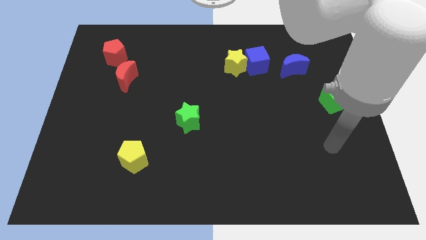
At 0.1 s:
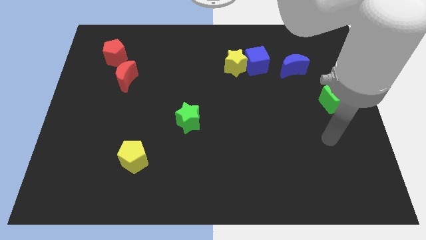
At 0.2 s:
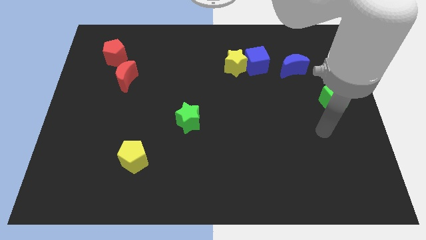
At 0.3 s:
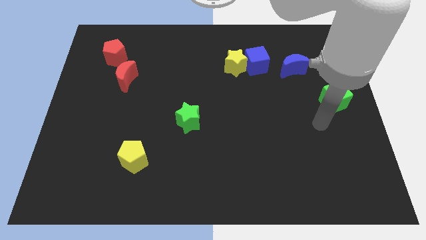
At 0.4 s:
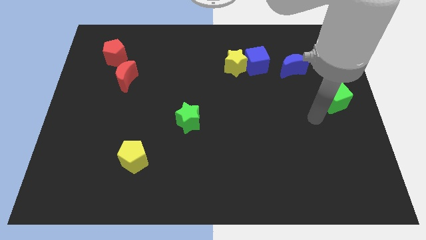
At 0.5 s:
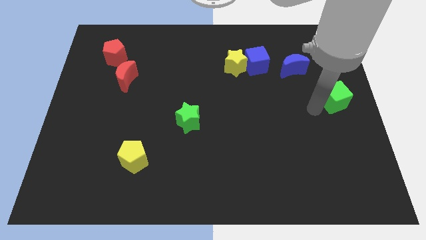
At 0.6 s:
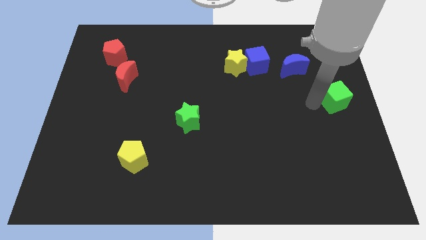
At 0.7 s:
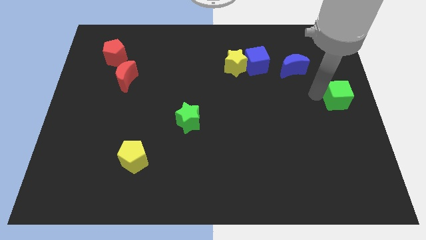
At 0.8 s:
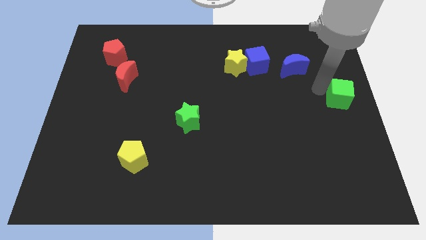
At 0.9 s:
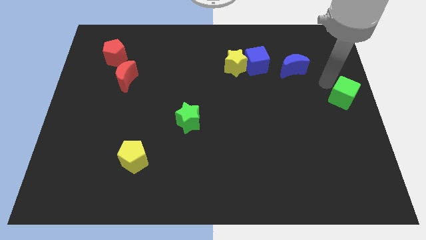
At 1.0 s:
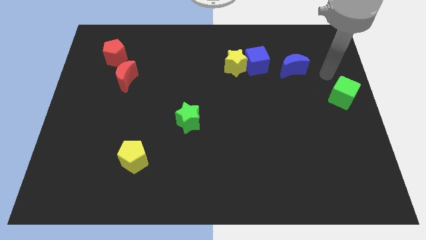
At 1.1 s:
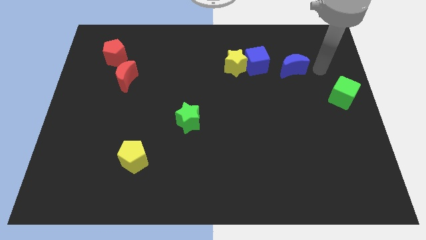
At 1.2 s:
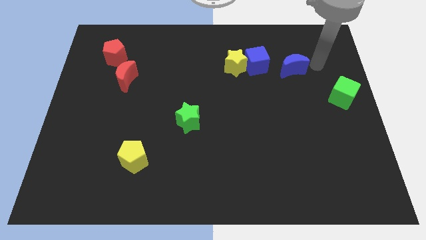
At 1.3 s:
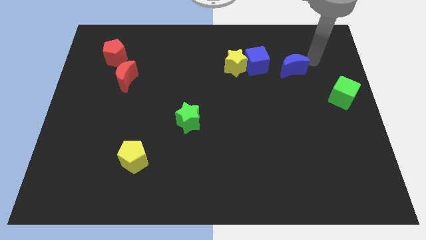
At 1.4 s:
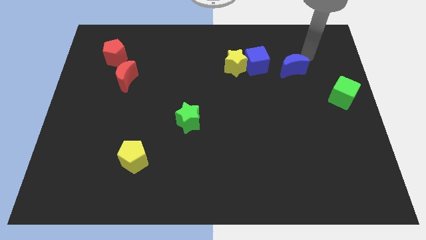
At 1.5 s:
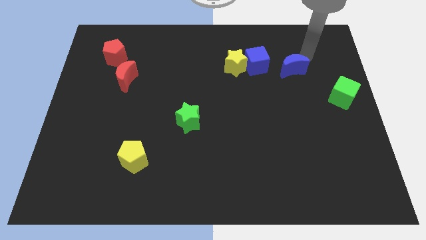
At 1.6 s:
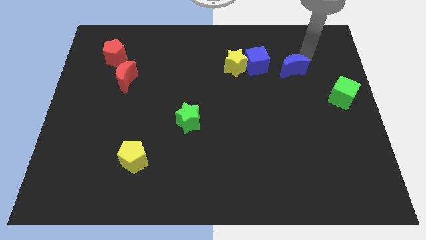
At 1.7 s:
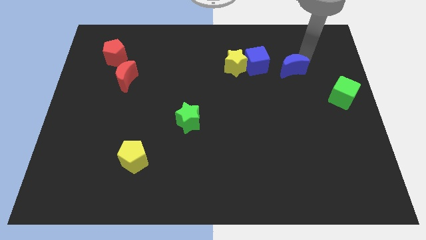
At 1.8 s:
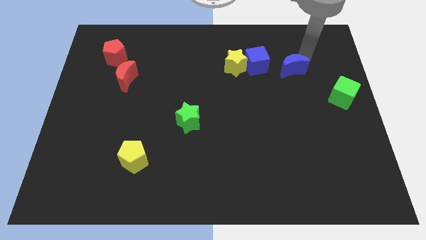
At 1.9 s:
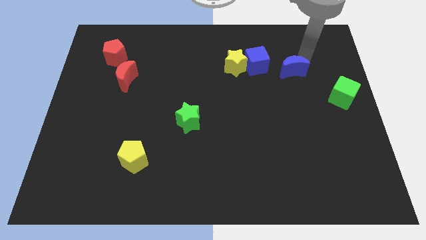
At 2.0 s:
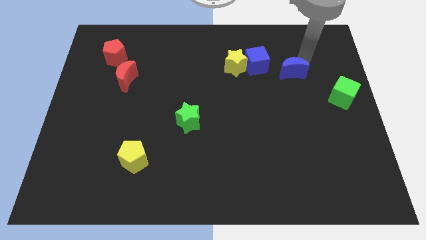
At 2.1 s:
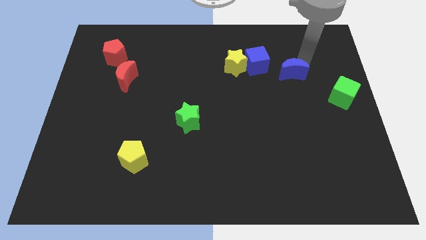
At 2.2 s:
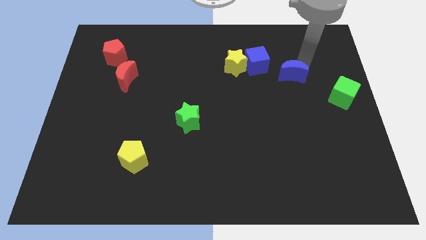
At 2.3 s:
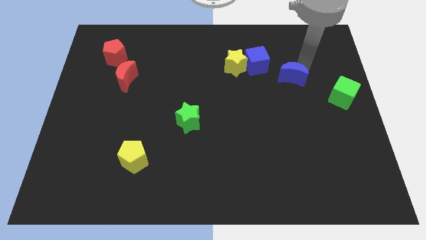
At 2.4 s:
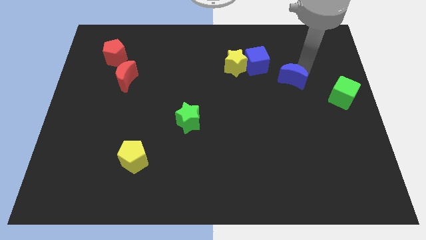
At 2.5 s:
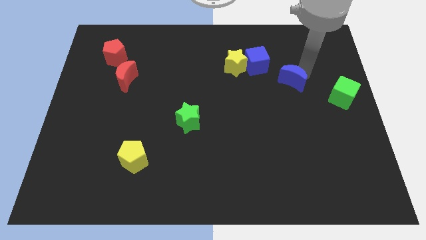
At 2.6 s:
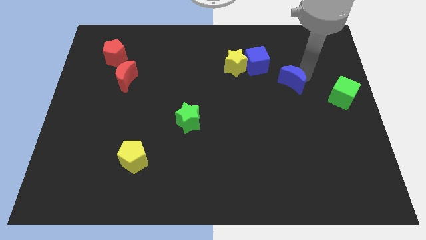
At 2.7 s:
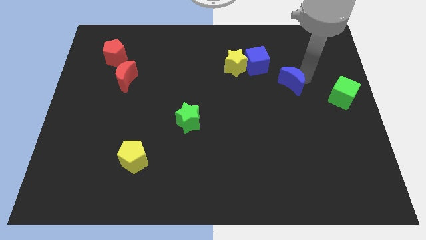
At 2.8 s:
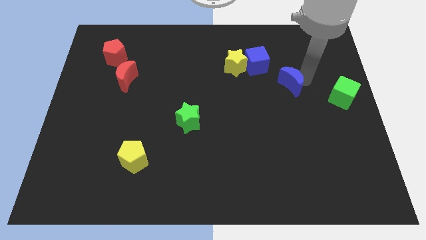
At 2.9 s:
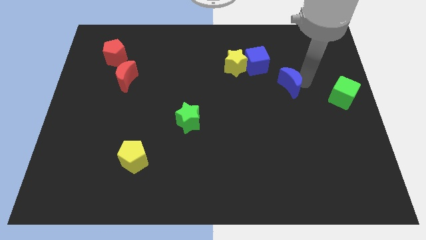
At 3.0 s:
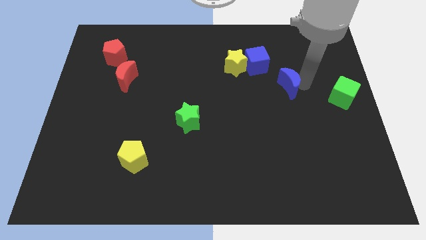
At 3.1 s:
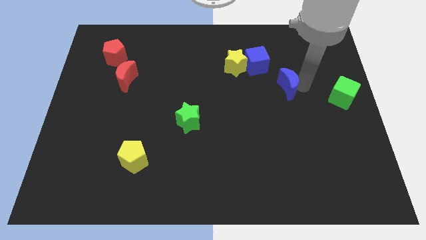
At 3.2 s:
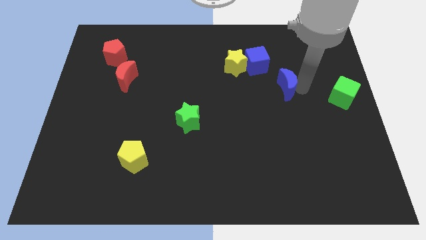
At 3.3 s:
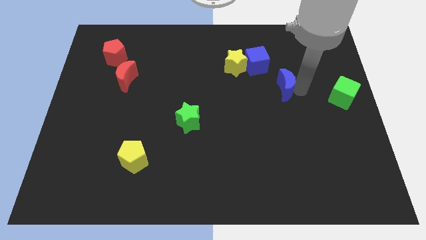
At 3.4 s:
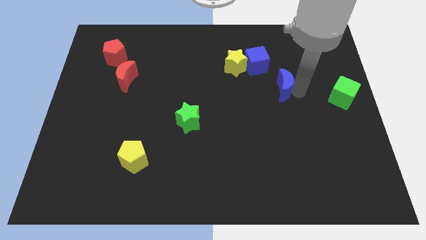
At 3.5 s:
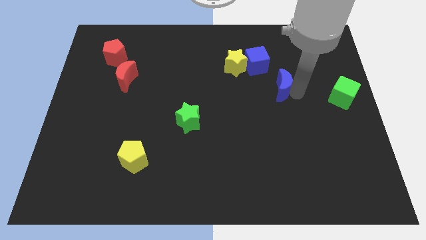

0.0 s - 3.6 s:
move the blue moon somewhat diagonally downwards and left

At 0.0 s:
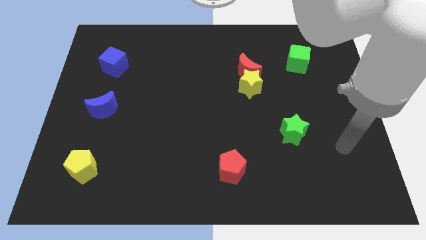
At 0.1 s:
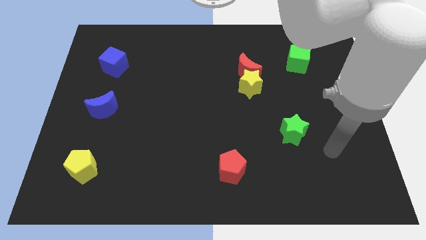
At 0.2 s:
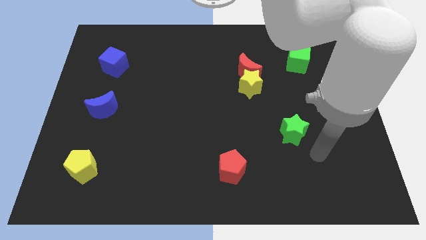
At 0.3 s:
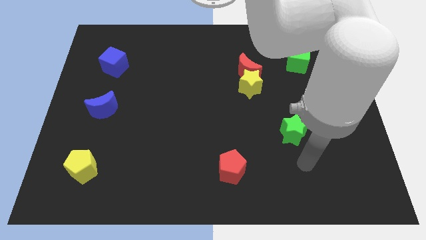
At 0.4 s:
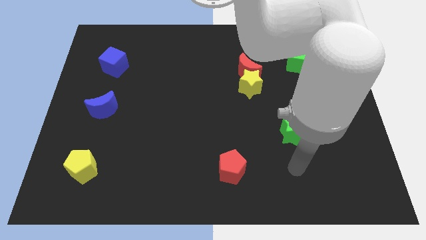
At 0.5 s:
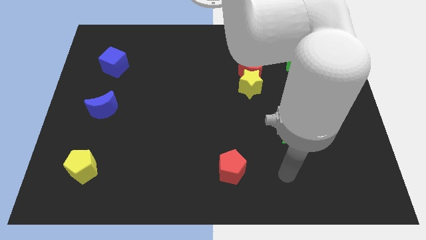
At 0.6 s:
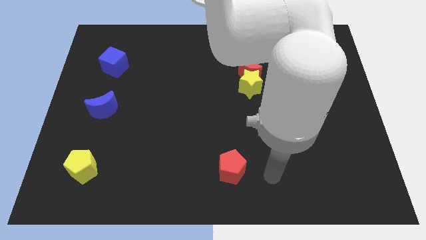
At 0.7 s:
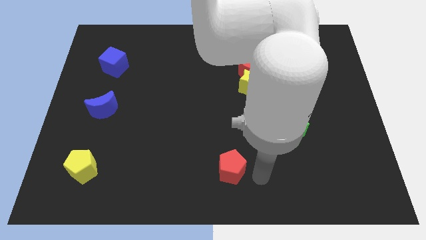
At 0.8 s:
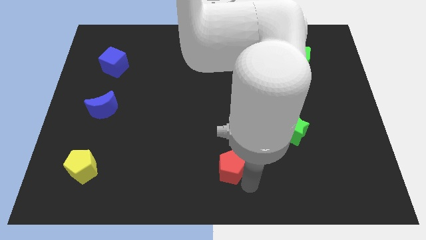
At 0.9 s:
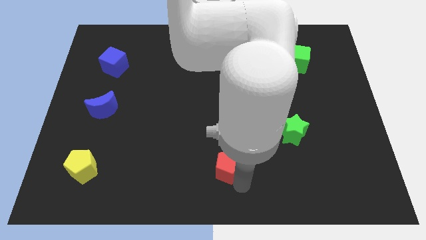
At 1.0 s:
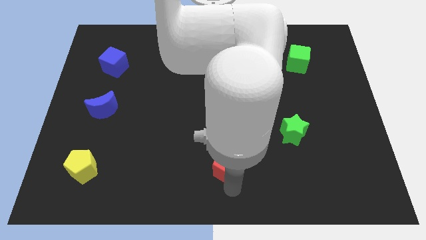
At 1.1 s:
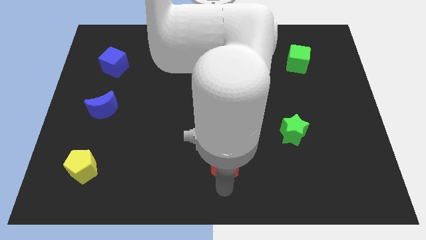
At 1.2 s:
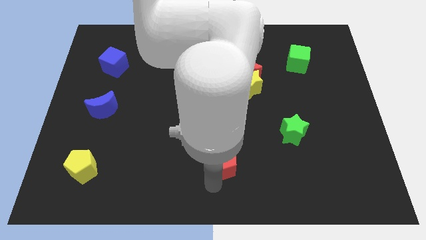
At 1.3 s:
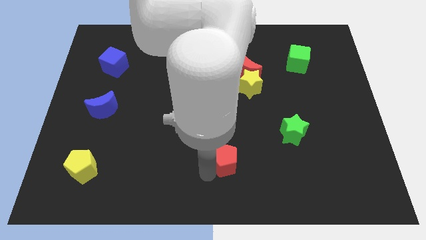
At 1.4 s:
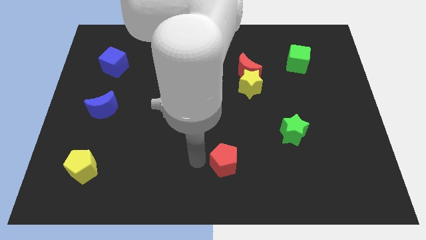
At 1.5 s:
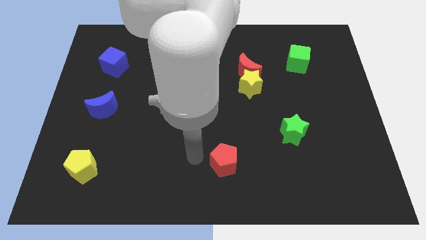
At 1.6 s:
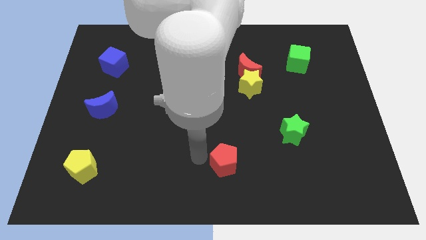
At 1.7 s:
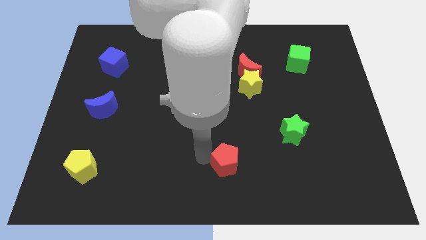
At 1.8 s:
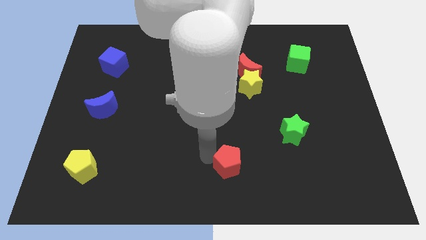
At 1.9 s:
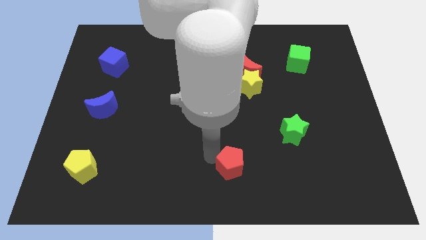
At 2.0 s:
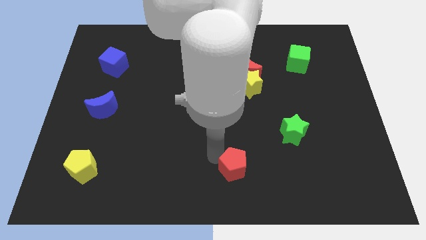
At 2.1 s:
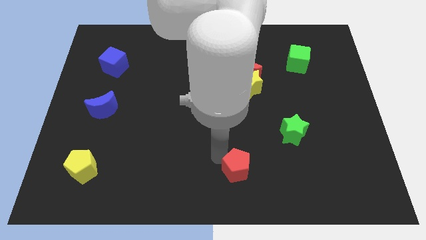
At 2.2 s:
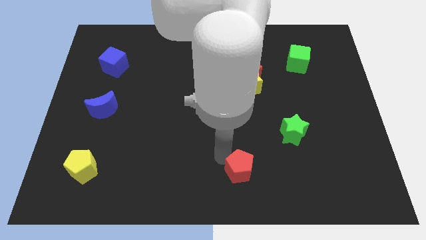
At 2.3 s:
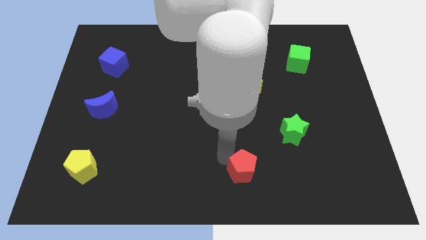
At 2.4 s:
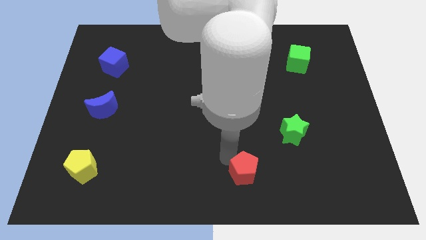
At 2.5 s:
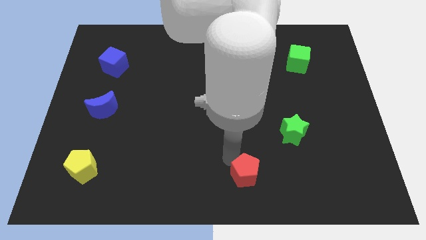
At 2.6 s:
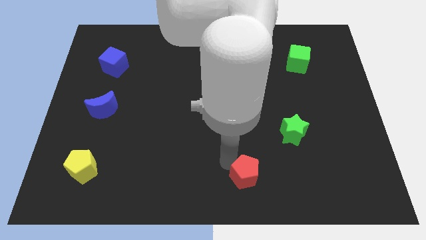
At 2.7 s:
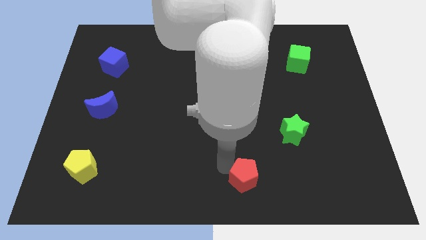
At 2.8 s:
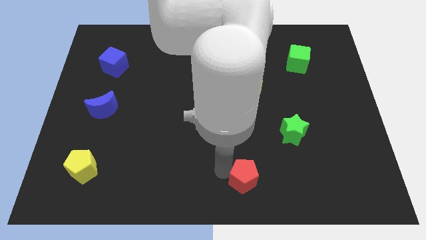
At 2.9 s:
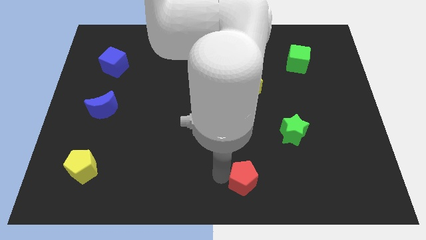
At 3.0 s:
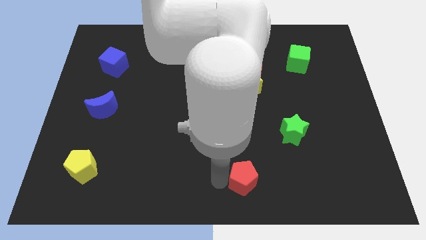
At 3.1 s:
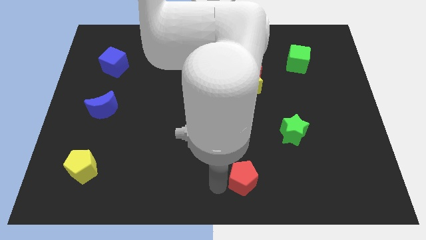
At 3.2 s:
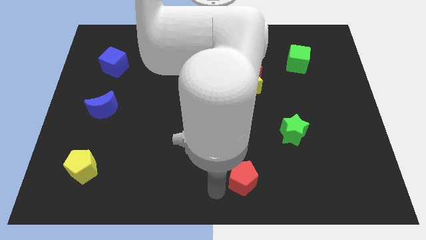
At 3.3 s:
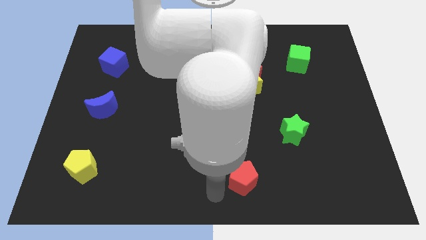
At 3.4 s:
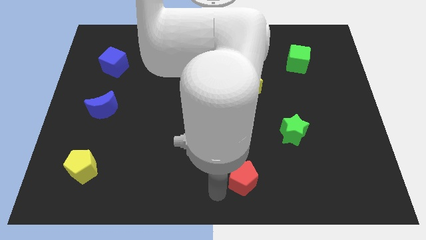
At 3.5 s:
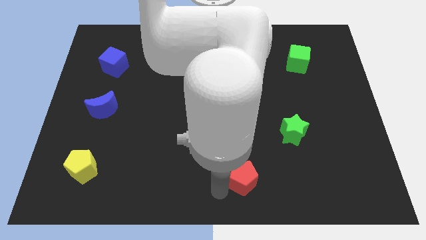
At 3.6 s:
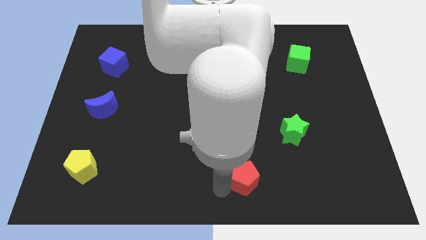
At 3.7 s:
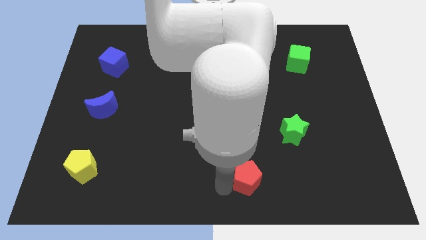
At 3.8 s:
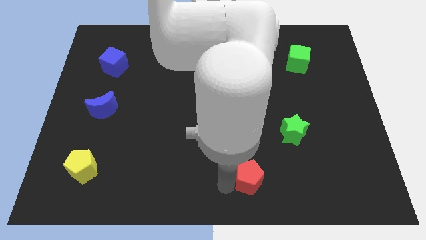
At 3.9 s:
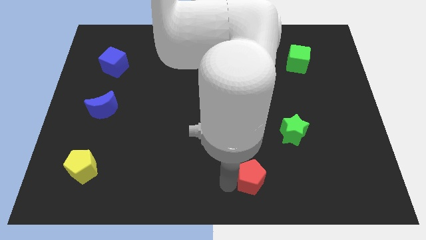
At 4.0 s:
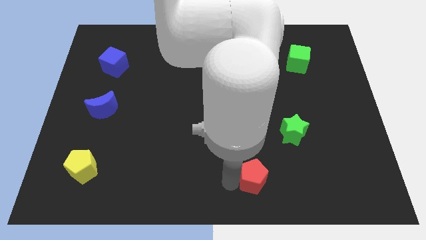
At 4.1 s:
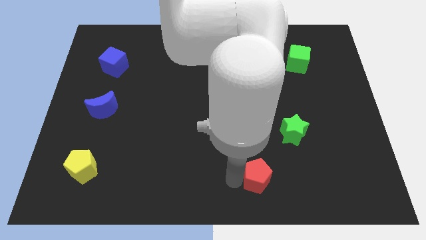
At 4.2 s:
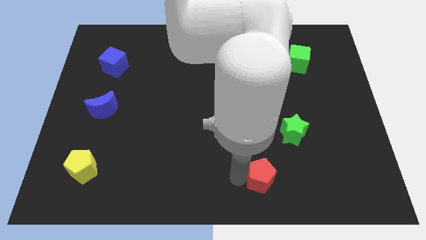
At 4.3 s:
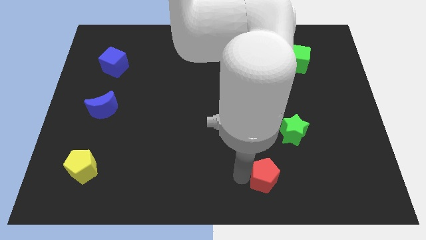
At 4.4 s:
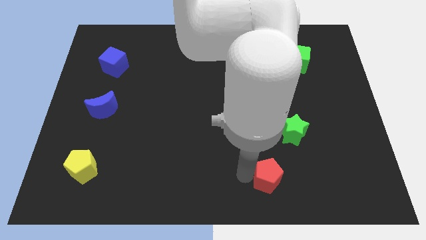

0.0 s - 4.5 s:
move the red pentagon slightly to the right

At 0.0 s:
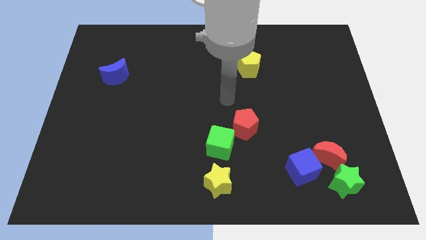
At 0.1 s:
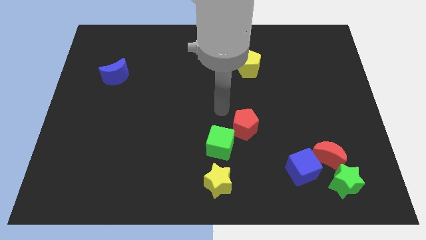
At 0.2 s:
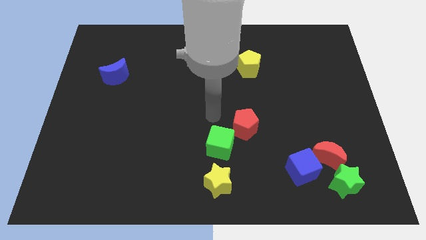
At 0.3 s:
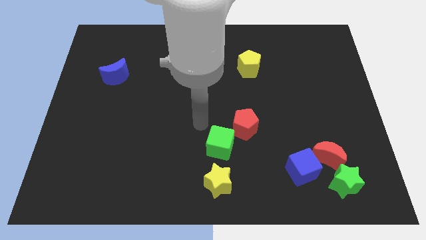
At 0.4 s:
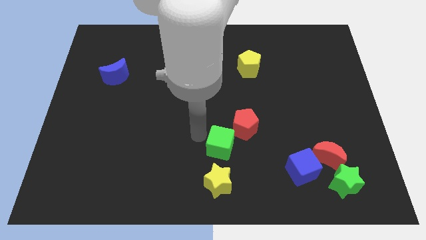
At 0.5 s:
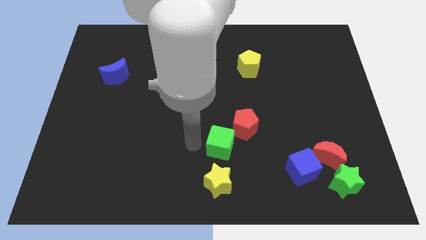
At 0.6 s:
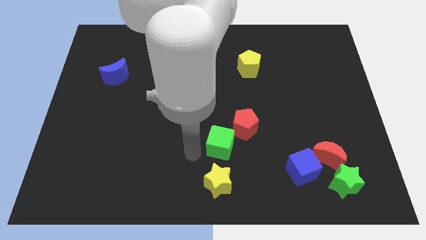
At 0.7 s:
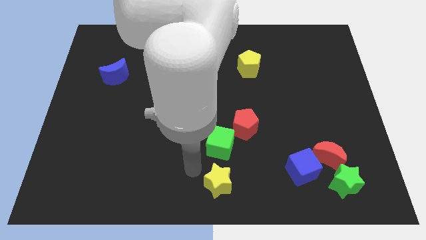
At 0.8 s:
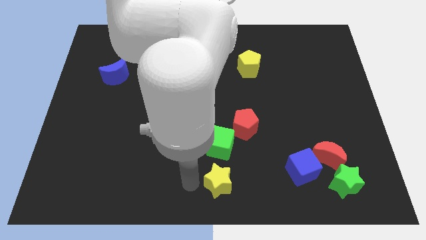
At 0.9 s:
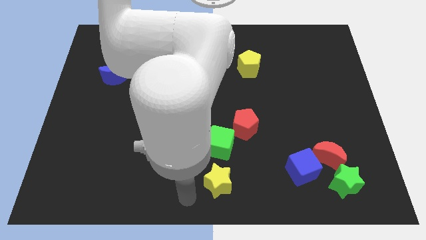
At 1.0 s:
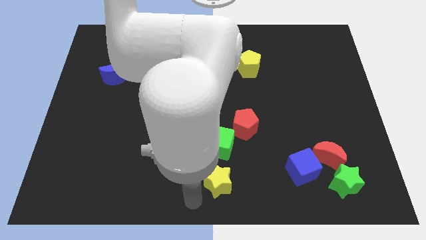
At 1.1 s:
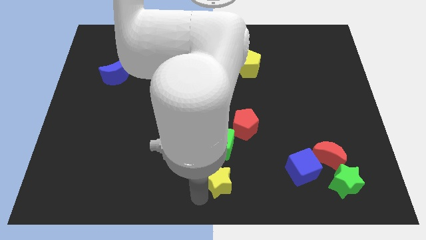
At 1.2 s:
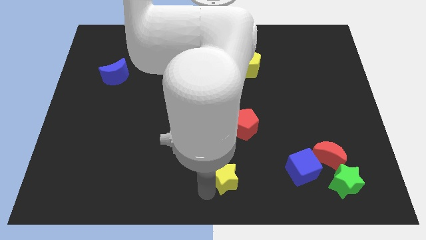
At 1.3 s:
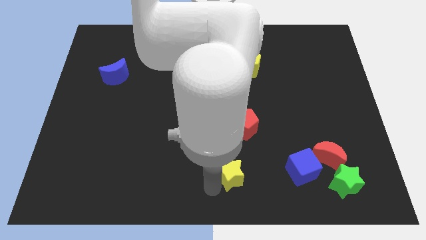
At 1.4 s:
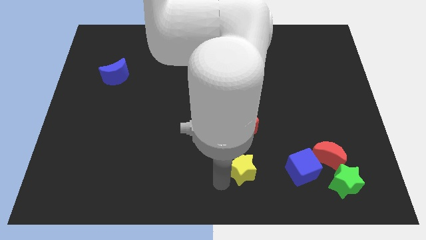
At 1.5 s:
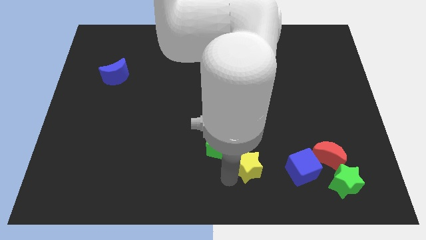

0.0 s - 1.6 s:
move the yellow star a bit up and then right
